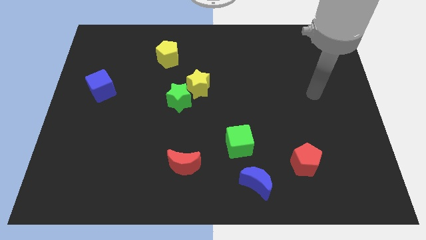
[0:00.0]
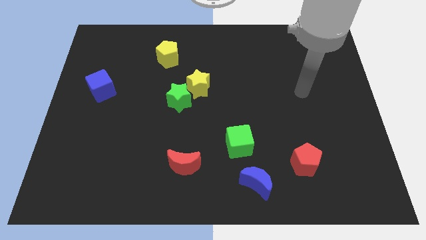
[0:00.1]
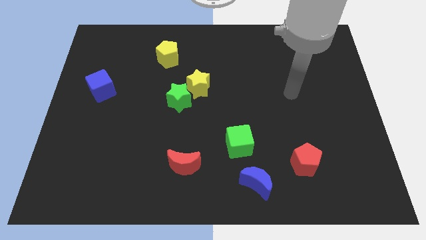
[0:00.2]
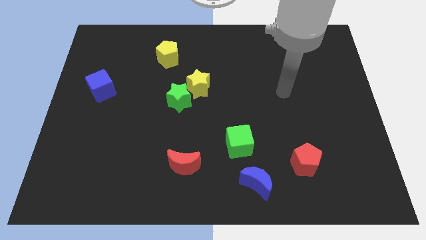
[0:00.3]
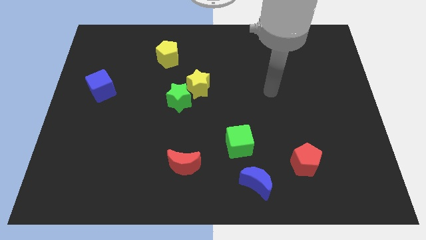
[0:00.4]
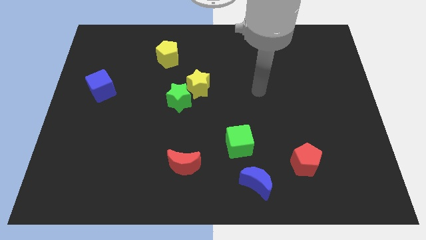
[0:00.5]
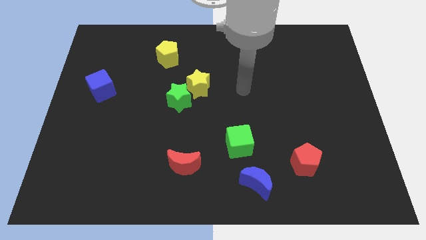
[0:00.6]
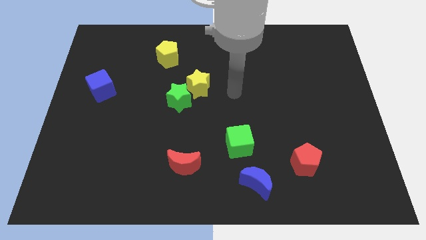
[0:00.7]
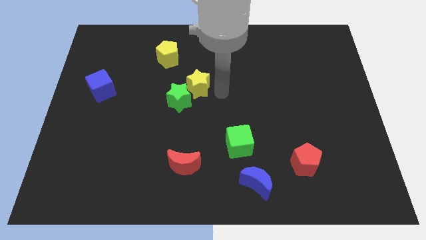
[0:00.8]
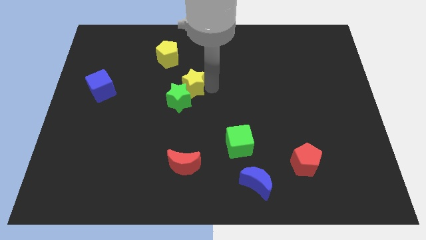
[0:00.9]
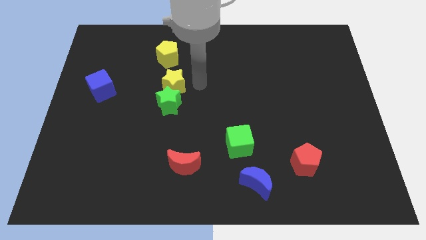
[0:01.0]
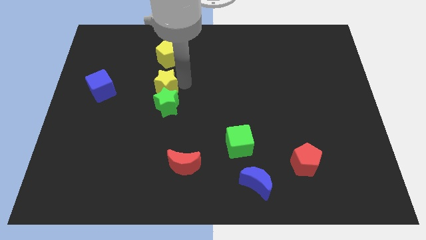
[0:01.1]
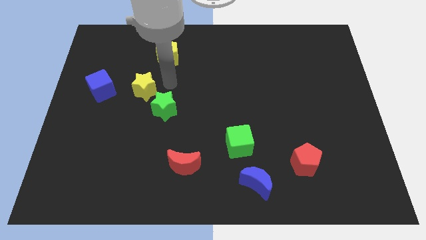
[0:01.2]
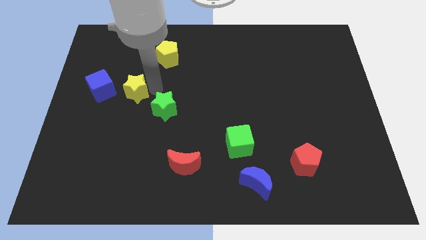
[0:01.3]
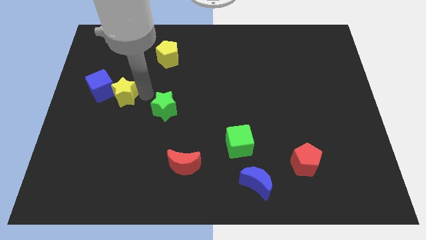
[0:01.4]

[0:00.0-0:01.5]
pull the green star apart from the yellow star

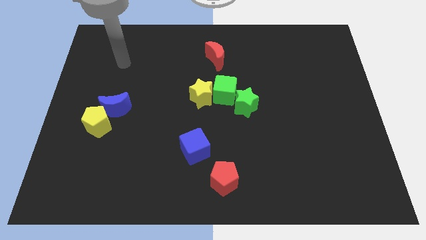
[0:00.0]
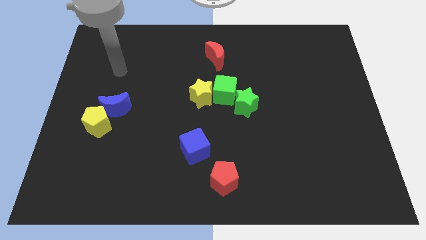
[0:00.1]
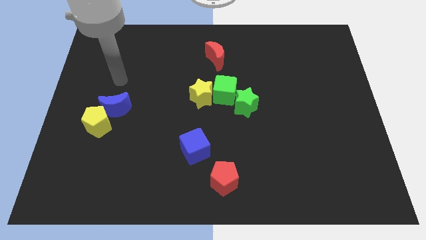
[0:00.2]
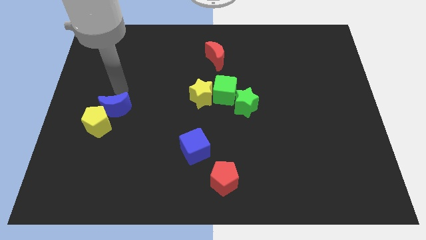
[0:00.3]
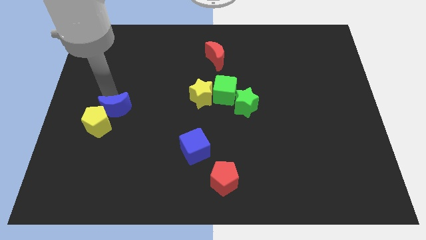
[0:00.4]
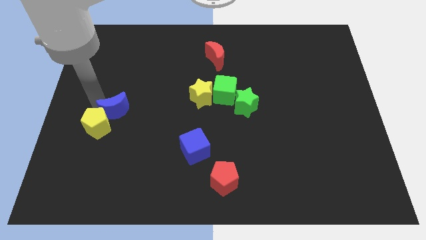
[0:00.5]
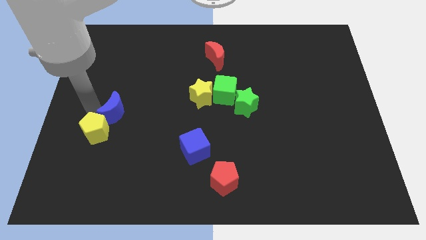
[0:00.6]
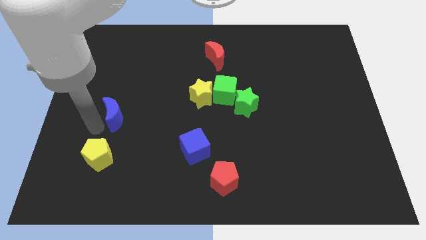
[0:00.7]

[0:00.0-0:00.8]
move the blue moon away from the yellow pentagon

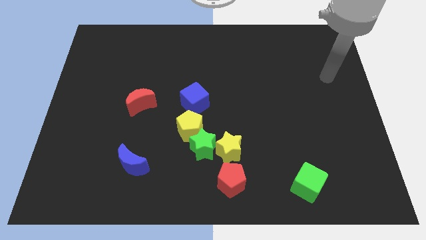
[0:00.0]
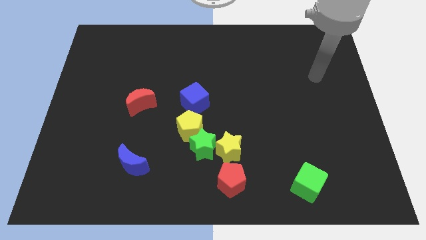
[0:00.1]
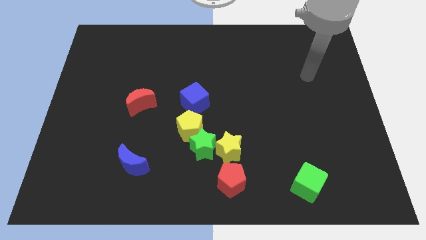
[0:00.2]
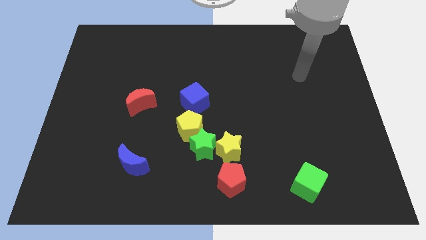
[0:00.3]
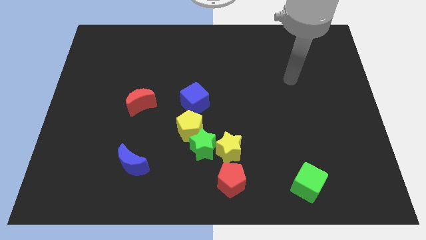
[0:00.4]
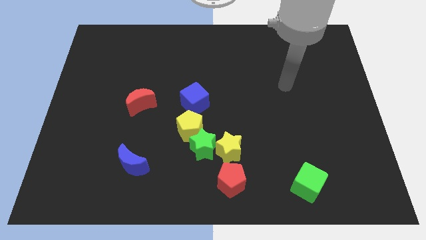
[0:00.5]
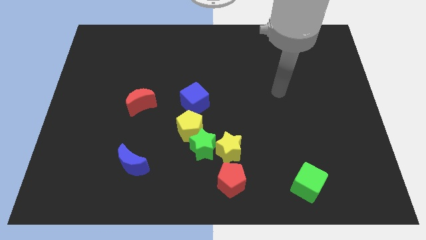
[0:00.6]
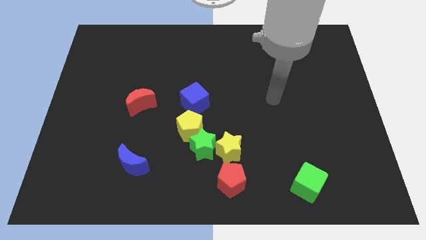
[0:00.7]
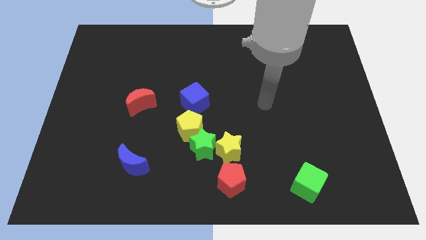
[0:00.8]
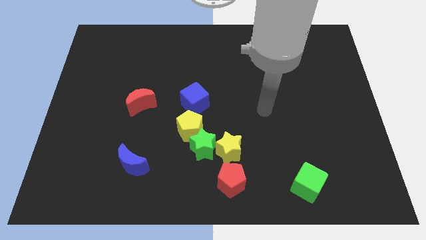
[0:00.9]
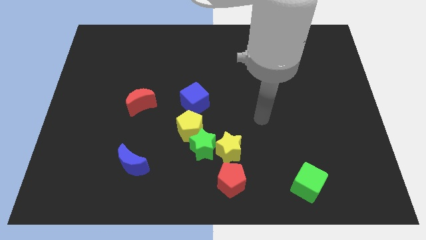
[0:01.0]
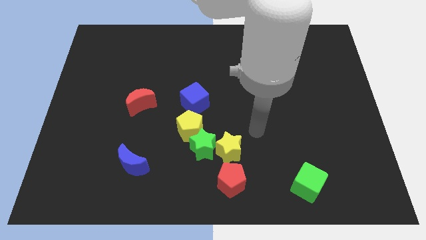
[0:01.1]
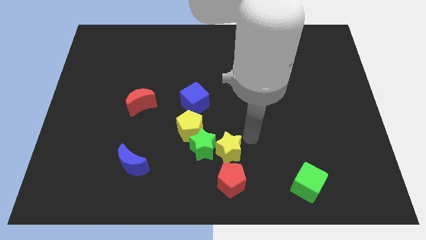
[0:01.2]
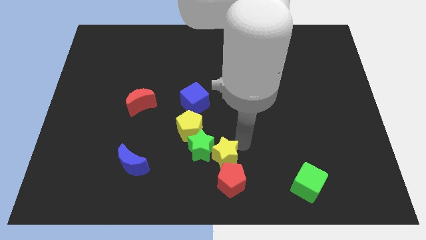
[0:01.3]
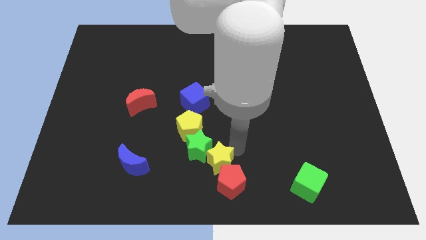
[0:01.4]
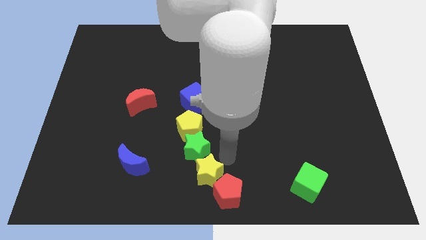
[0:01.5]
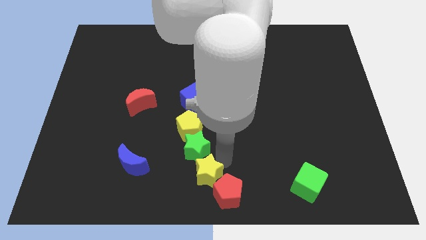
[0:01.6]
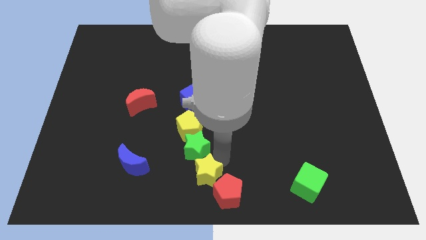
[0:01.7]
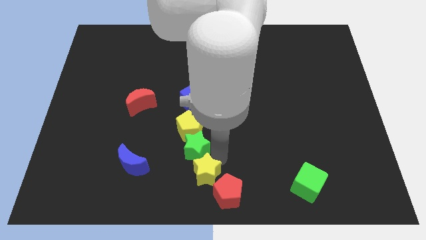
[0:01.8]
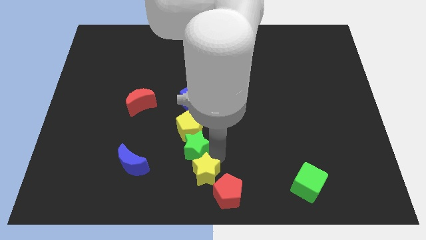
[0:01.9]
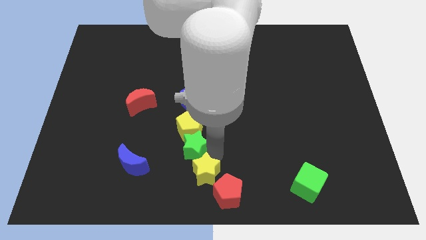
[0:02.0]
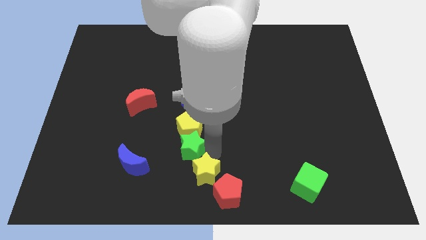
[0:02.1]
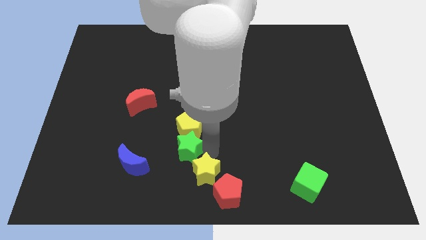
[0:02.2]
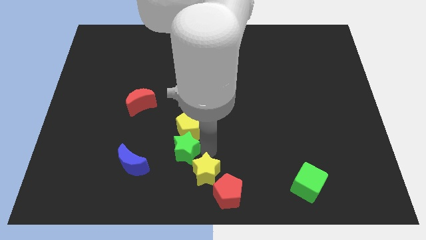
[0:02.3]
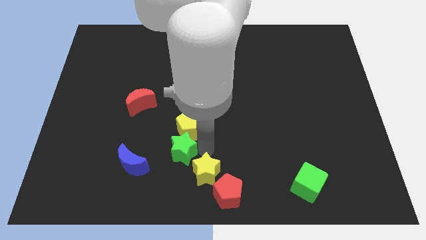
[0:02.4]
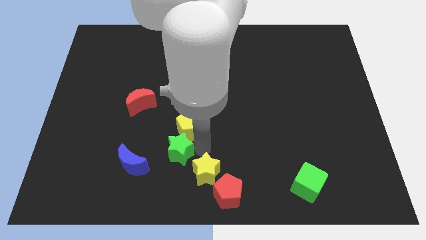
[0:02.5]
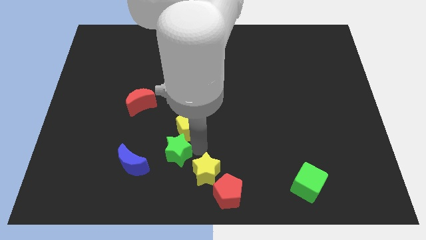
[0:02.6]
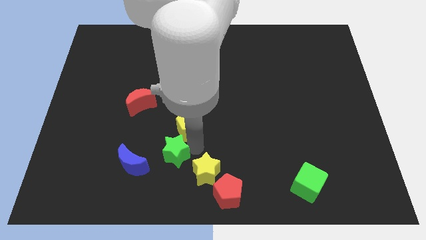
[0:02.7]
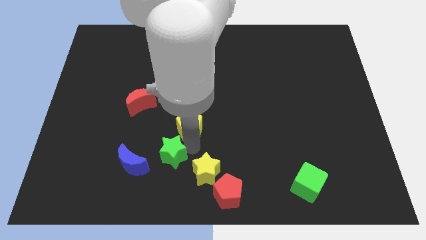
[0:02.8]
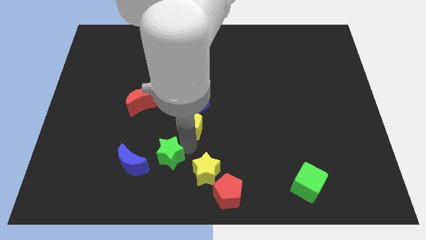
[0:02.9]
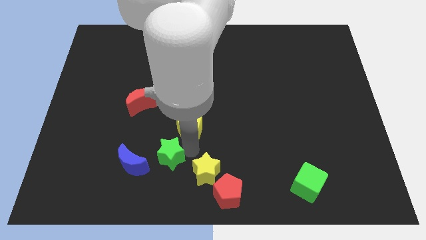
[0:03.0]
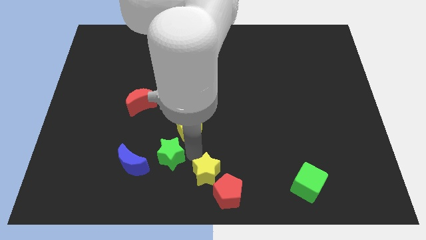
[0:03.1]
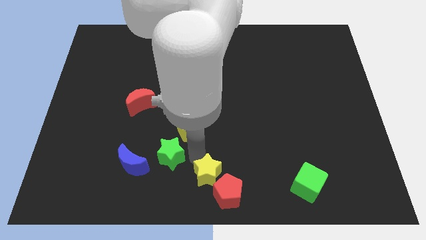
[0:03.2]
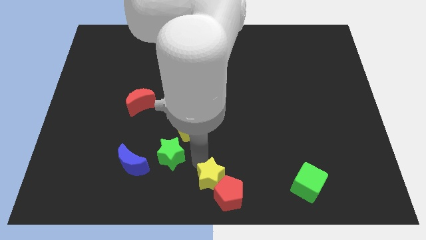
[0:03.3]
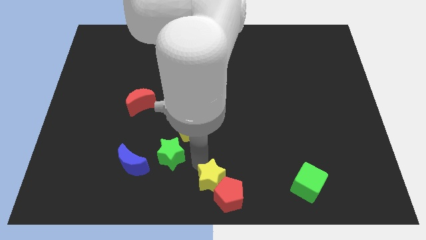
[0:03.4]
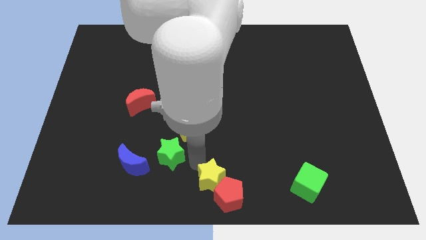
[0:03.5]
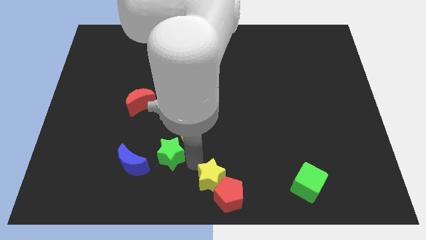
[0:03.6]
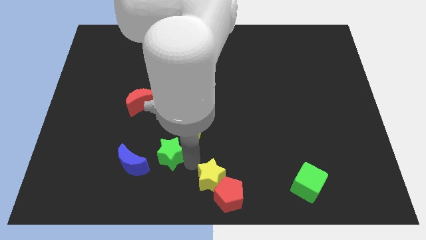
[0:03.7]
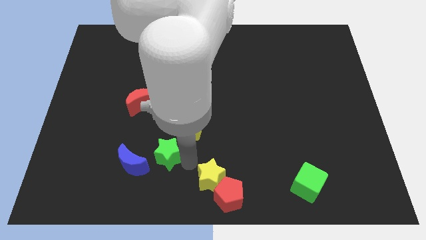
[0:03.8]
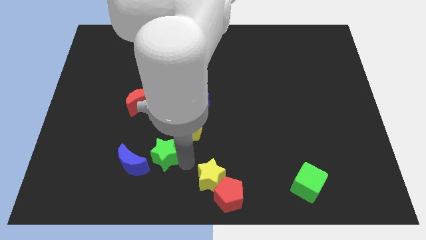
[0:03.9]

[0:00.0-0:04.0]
move the green star away from the group of blocks

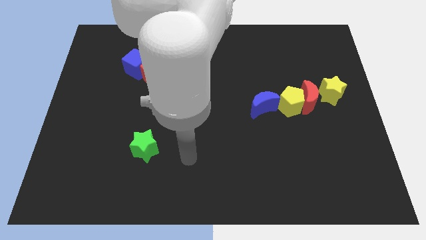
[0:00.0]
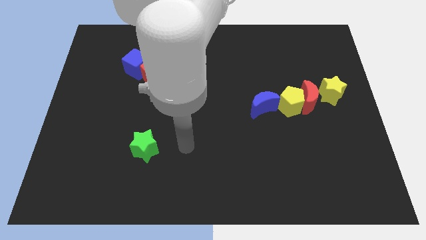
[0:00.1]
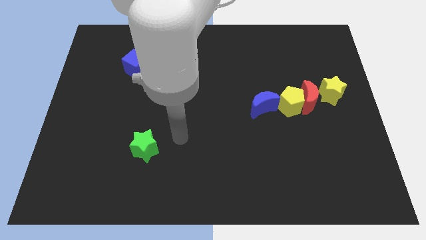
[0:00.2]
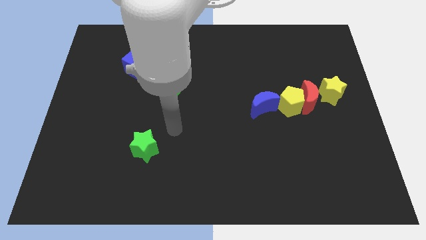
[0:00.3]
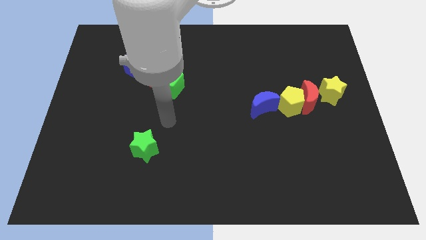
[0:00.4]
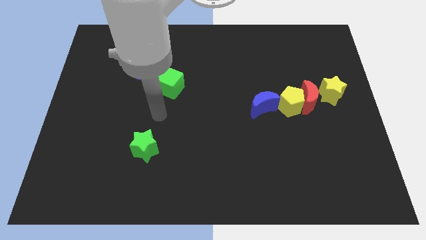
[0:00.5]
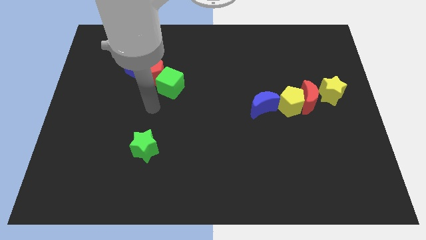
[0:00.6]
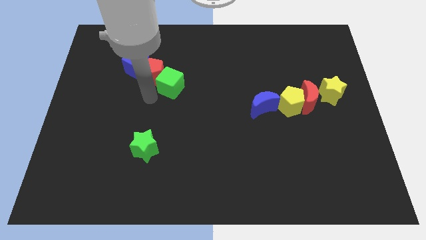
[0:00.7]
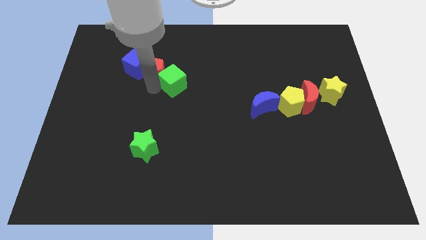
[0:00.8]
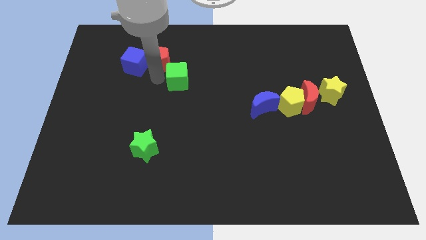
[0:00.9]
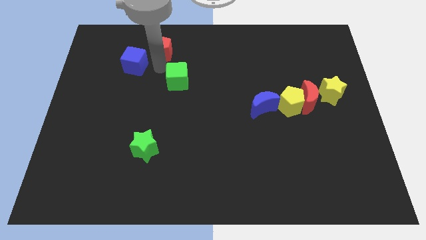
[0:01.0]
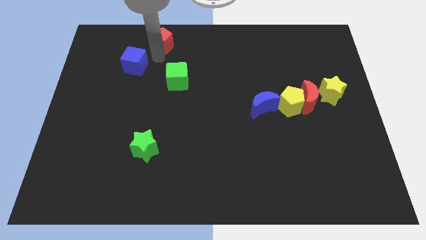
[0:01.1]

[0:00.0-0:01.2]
separate the blue cube from the red pentagon

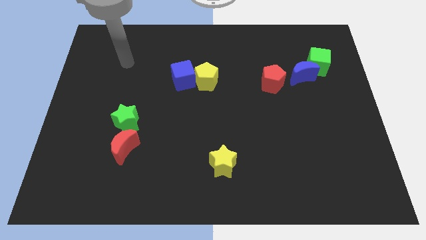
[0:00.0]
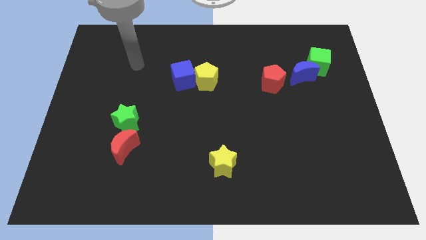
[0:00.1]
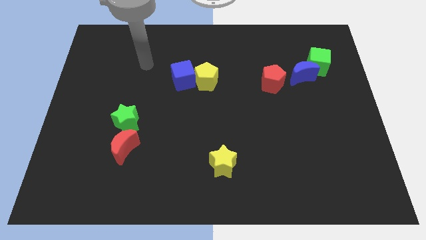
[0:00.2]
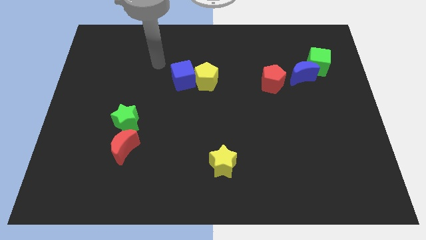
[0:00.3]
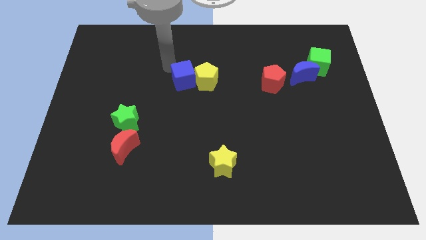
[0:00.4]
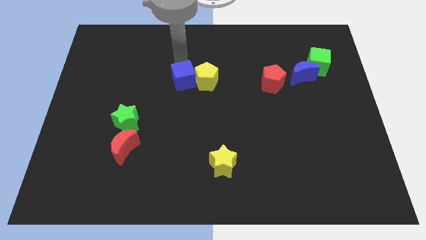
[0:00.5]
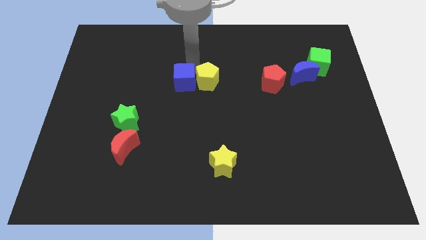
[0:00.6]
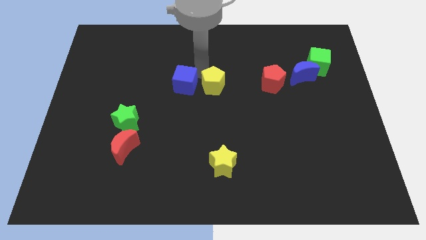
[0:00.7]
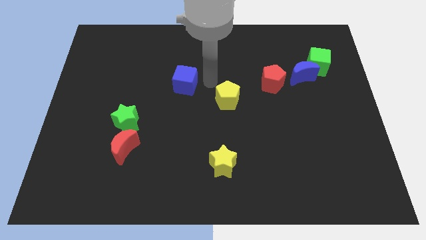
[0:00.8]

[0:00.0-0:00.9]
move the blue cube away from the yellow pentagon

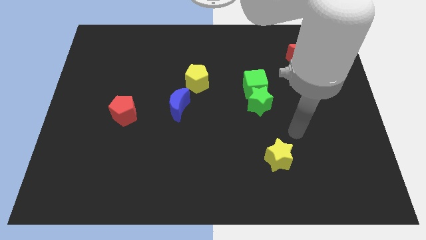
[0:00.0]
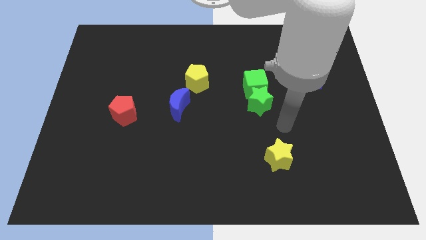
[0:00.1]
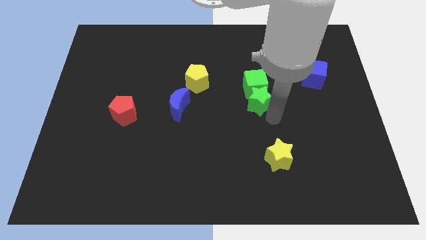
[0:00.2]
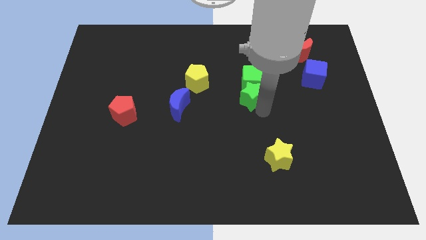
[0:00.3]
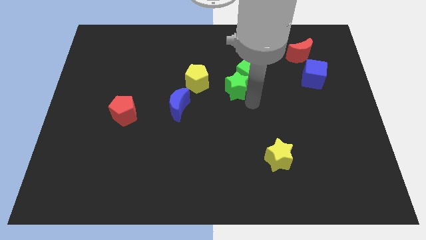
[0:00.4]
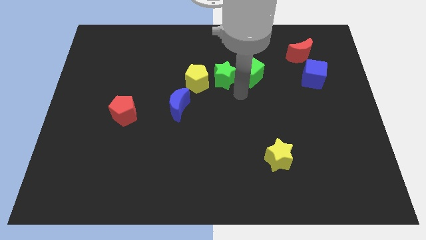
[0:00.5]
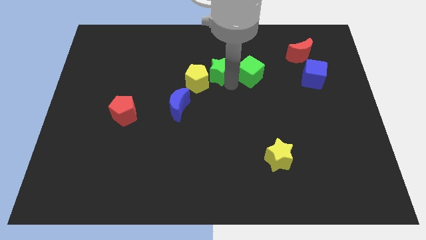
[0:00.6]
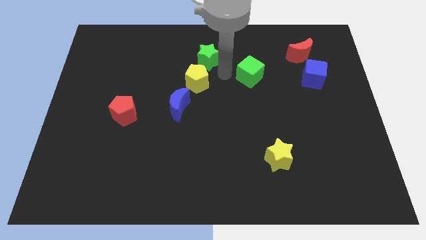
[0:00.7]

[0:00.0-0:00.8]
separate the green cube from the green star

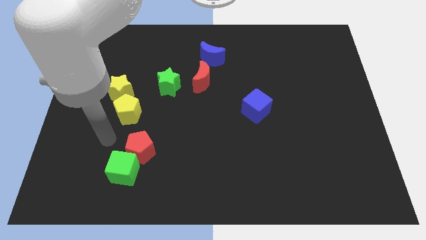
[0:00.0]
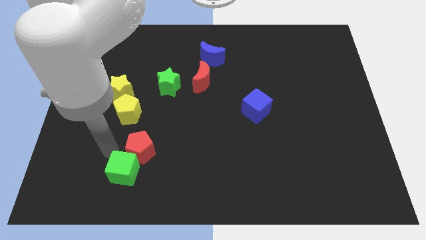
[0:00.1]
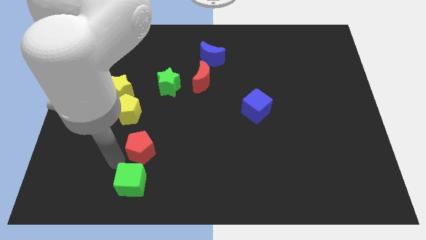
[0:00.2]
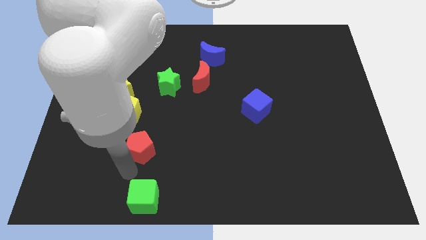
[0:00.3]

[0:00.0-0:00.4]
pull the red pentagon apart from the green cube
